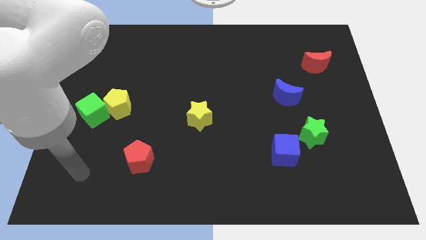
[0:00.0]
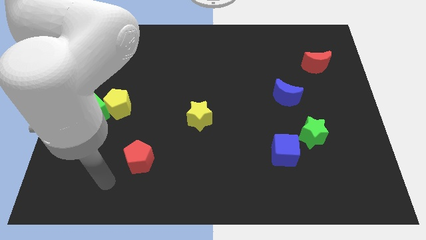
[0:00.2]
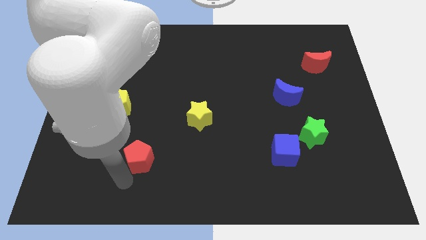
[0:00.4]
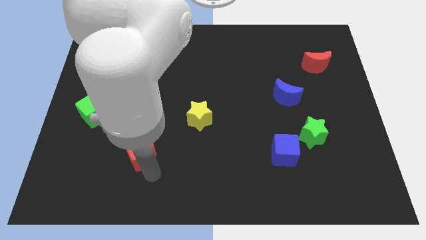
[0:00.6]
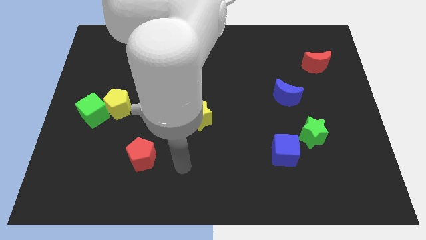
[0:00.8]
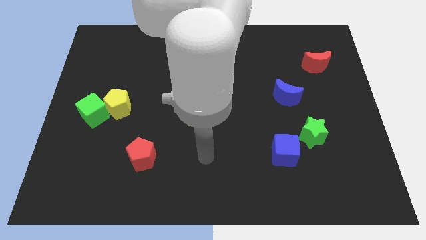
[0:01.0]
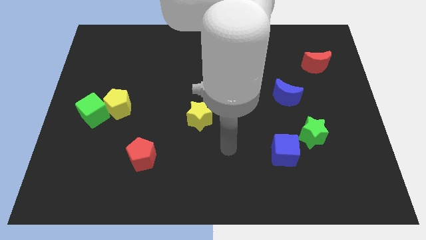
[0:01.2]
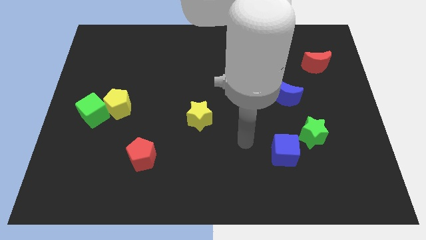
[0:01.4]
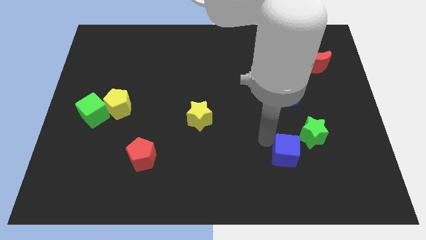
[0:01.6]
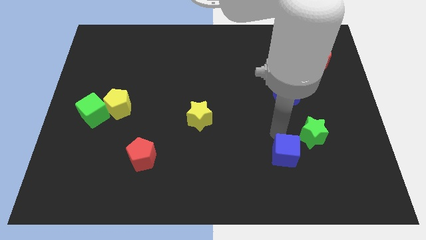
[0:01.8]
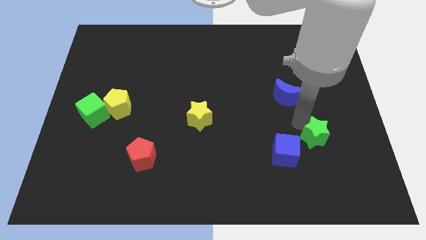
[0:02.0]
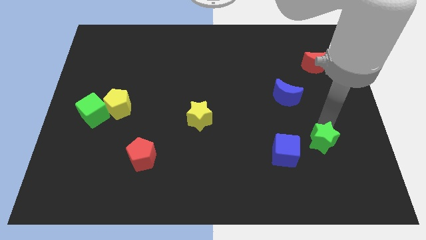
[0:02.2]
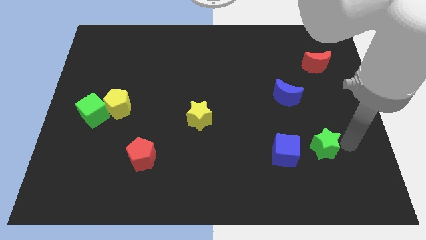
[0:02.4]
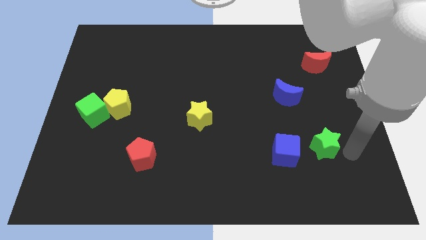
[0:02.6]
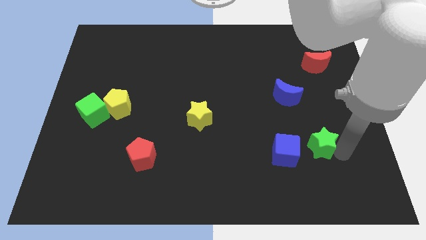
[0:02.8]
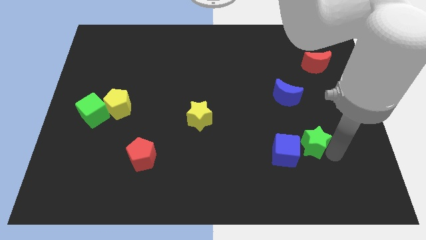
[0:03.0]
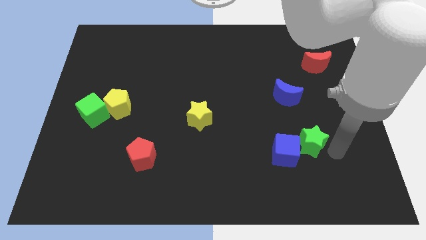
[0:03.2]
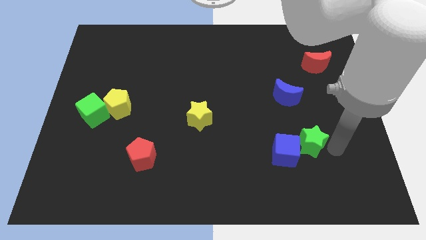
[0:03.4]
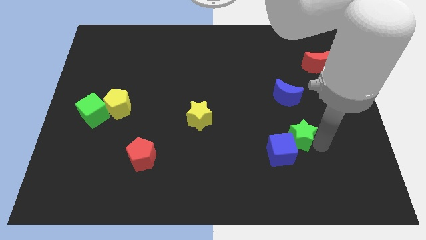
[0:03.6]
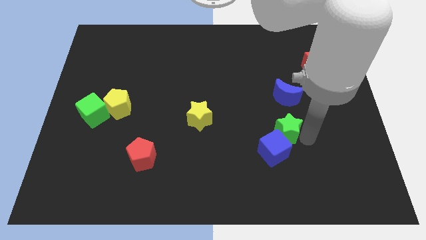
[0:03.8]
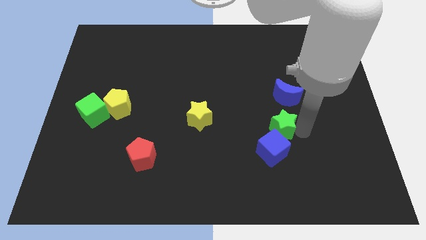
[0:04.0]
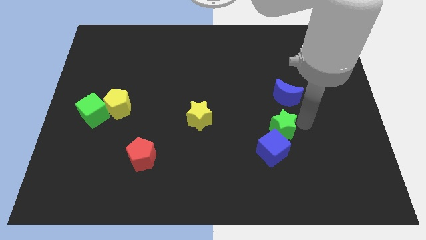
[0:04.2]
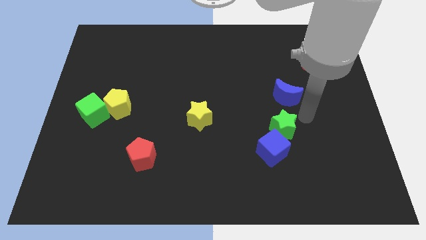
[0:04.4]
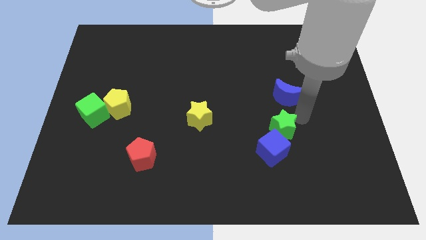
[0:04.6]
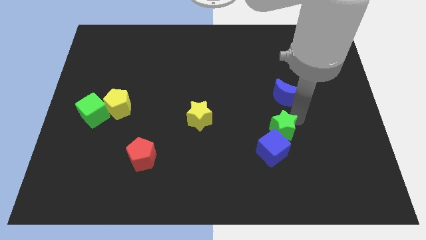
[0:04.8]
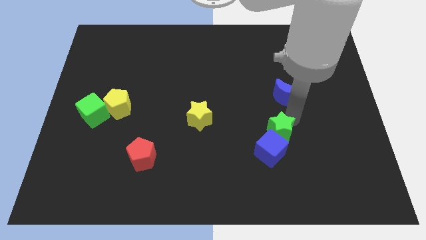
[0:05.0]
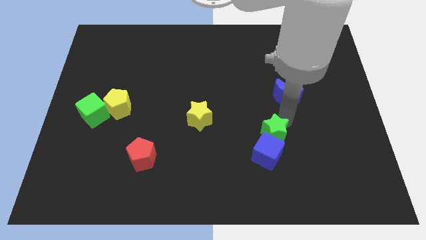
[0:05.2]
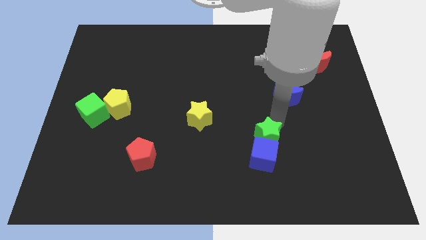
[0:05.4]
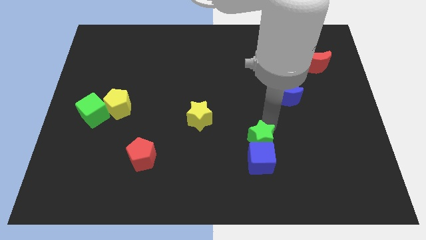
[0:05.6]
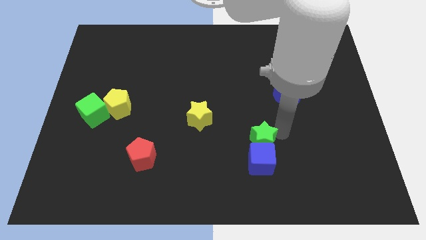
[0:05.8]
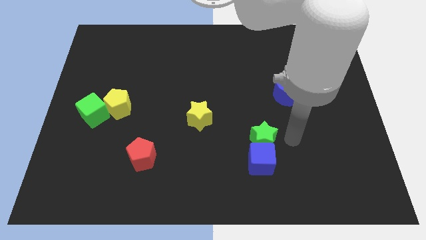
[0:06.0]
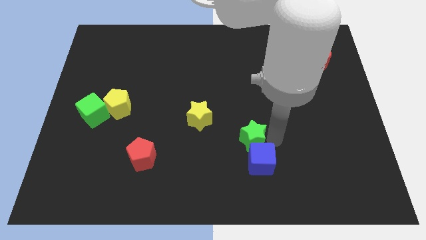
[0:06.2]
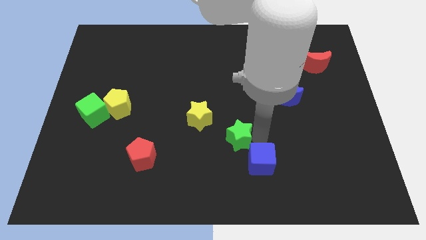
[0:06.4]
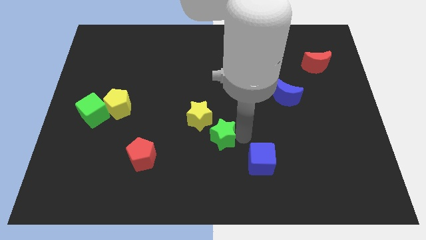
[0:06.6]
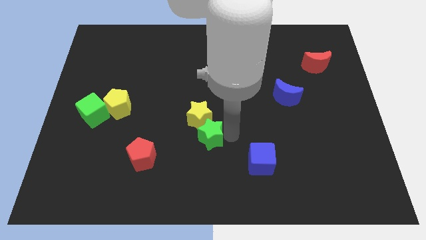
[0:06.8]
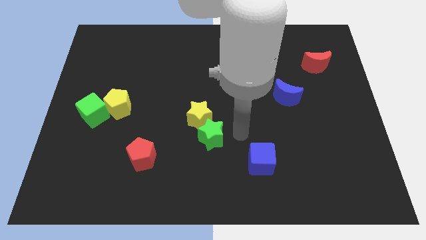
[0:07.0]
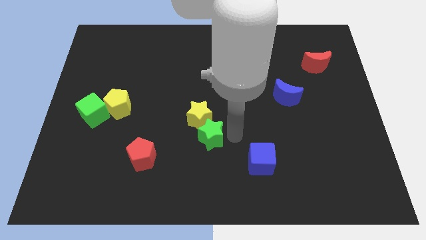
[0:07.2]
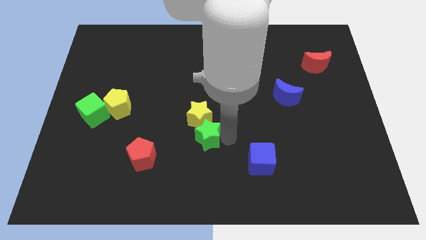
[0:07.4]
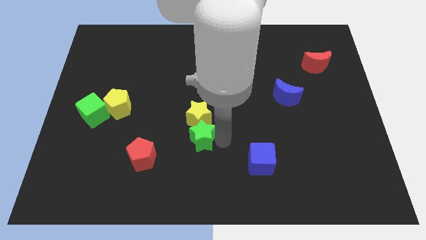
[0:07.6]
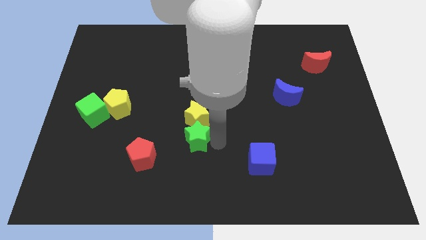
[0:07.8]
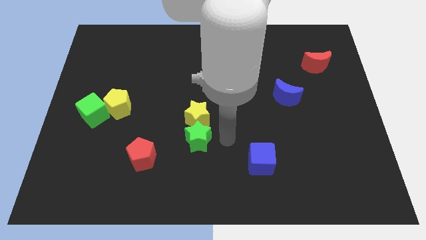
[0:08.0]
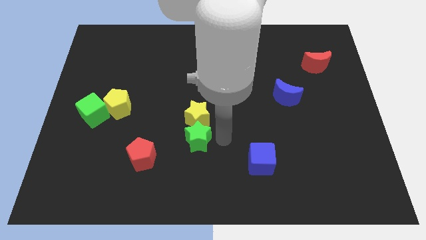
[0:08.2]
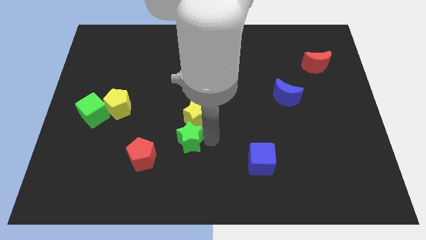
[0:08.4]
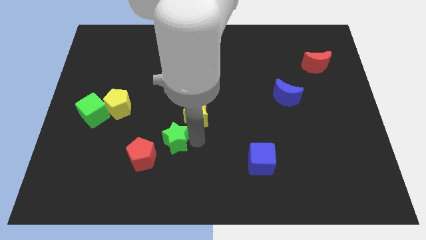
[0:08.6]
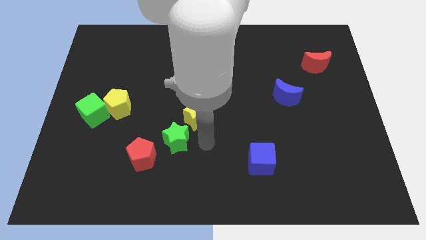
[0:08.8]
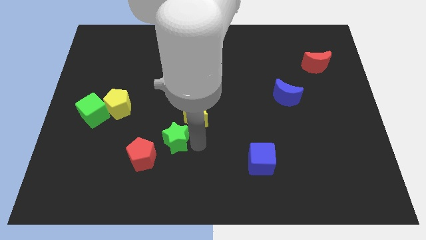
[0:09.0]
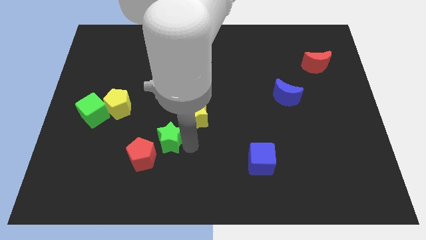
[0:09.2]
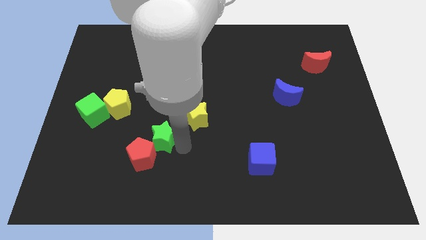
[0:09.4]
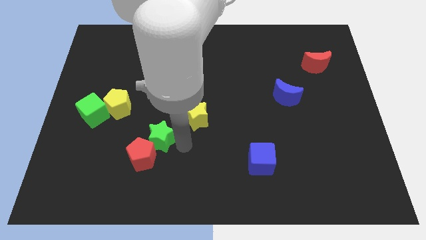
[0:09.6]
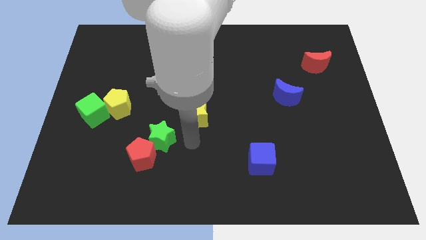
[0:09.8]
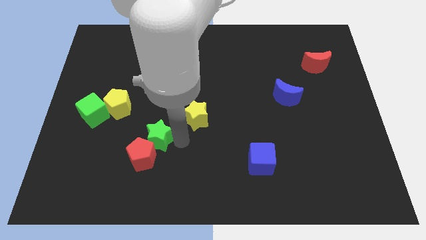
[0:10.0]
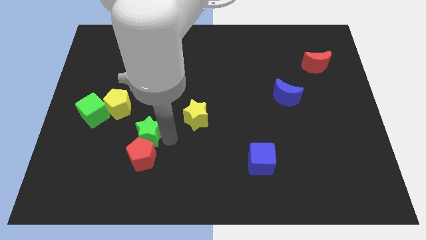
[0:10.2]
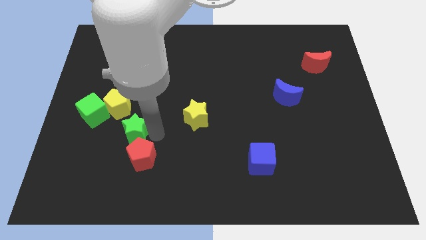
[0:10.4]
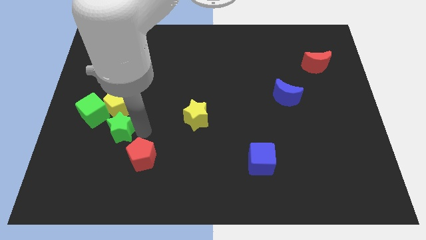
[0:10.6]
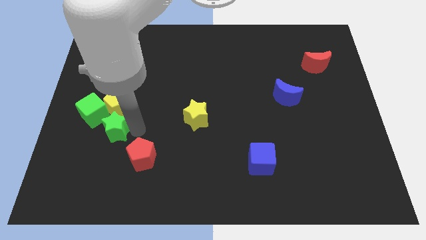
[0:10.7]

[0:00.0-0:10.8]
slide the green star diagonally down and to the left of the yellow pentagon

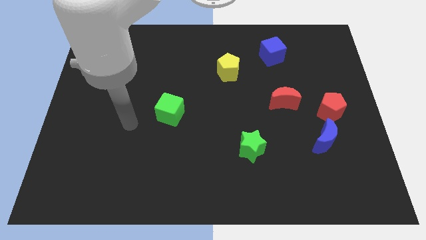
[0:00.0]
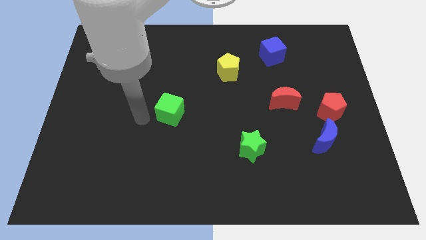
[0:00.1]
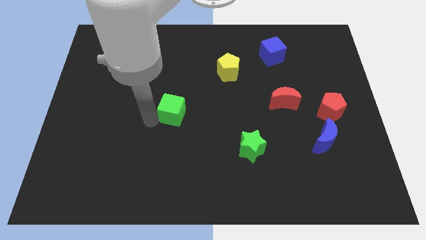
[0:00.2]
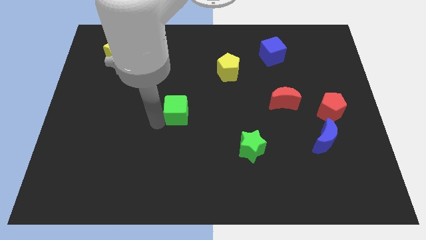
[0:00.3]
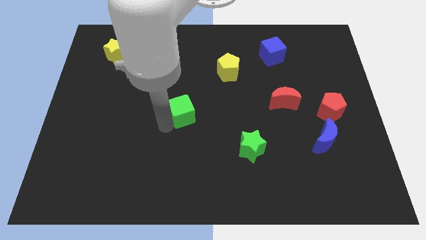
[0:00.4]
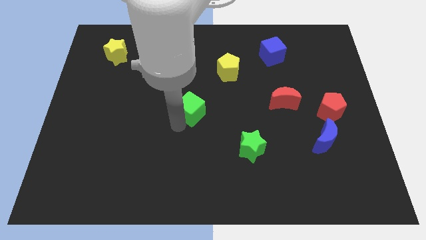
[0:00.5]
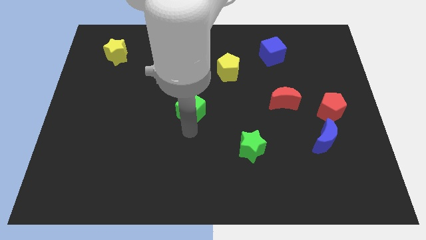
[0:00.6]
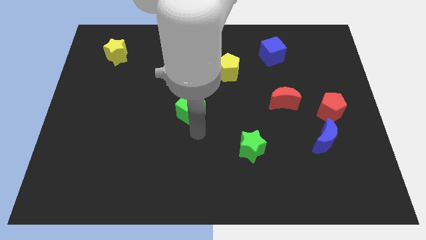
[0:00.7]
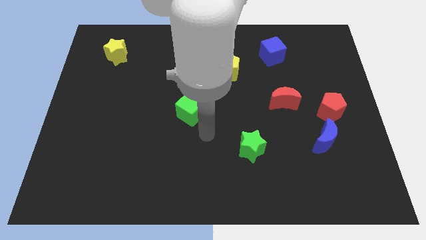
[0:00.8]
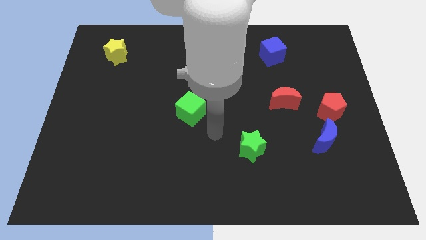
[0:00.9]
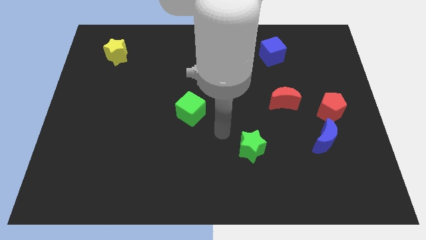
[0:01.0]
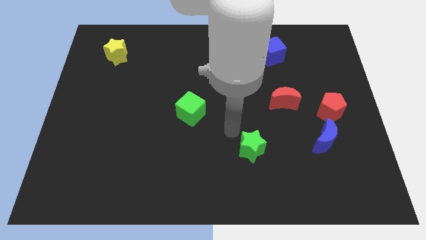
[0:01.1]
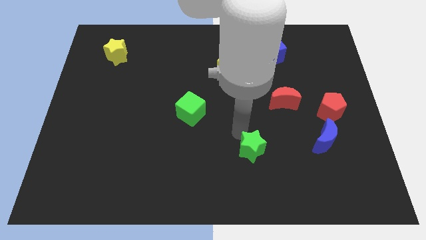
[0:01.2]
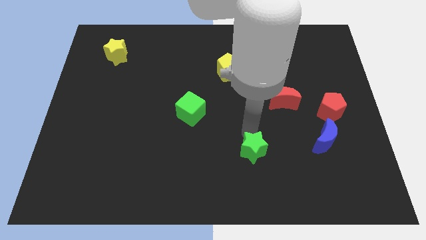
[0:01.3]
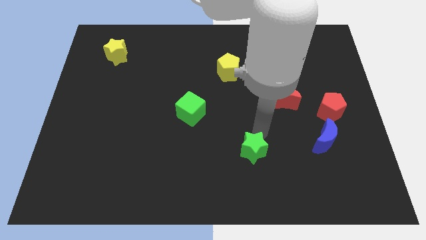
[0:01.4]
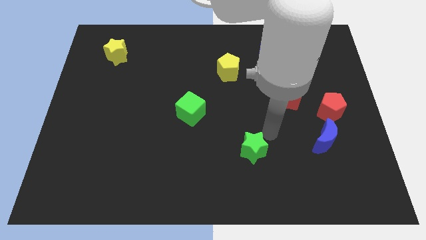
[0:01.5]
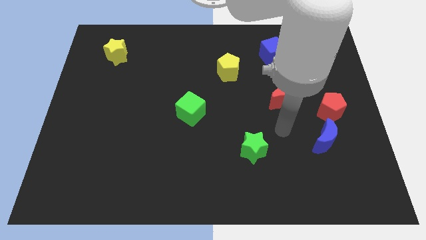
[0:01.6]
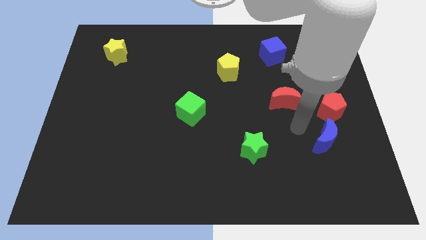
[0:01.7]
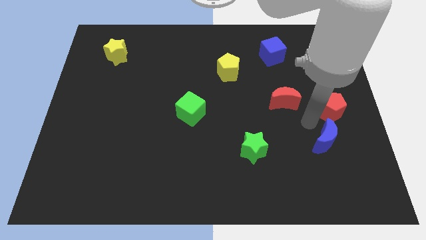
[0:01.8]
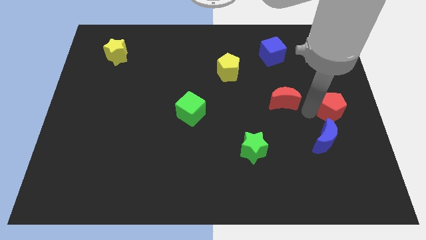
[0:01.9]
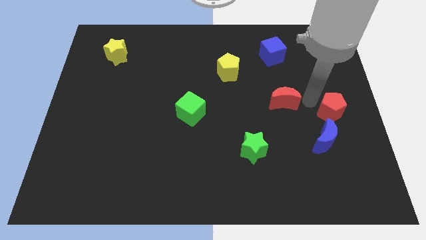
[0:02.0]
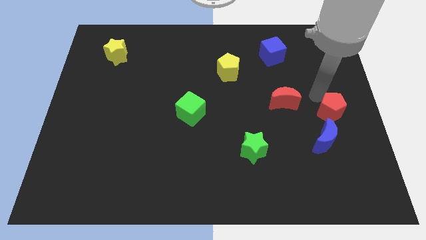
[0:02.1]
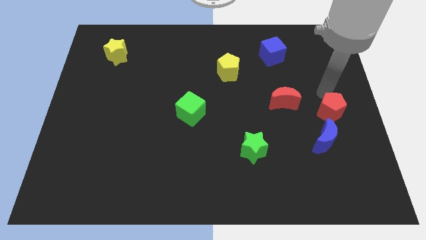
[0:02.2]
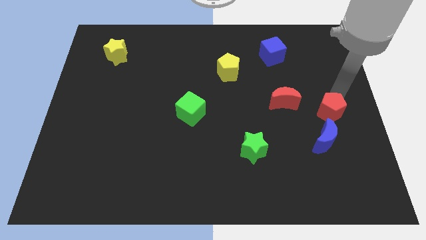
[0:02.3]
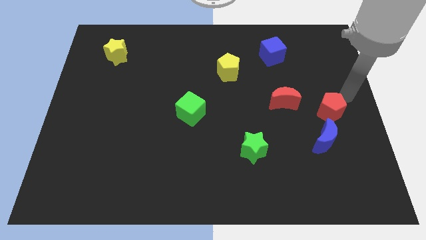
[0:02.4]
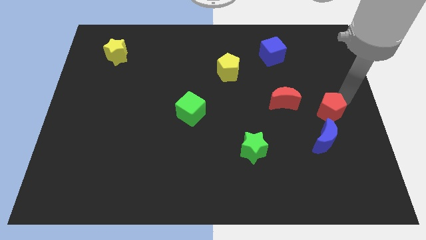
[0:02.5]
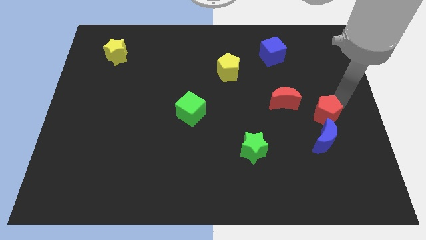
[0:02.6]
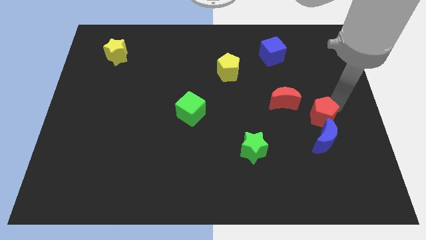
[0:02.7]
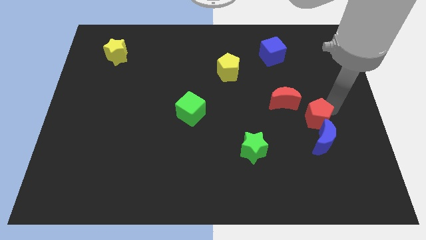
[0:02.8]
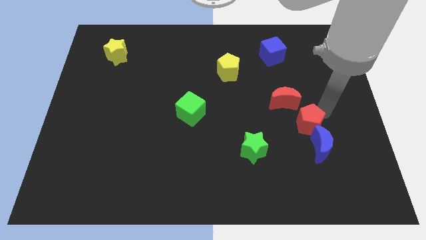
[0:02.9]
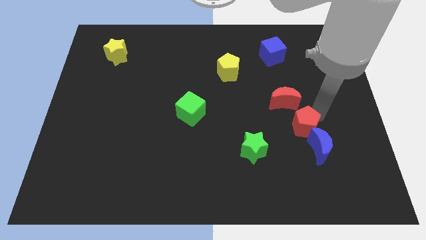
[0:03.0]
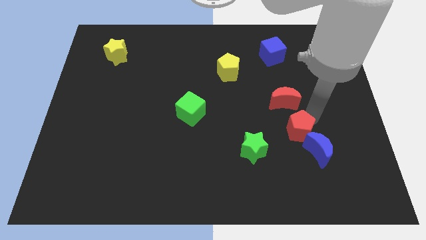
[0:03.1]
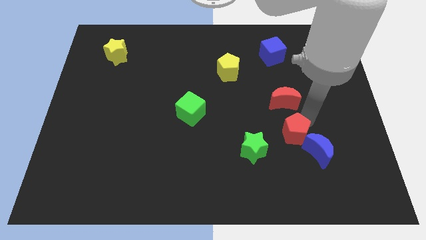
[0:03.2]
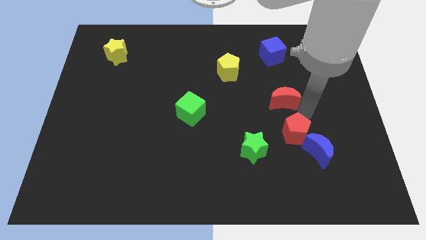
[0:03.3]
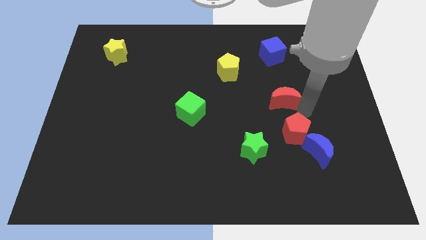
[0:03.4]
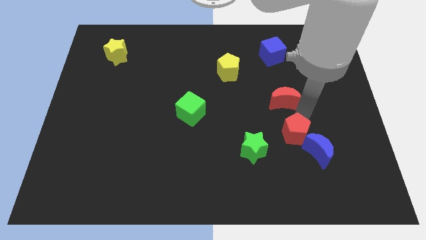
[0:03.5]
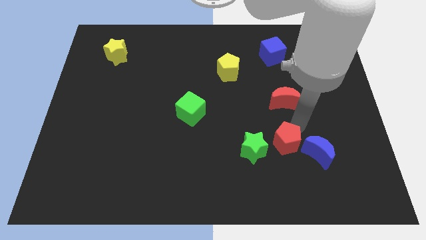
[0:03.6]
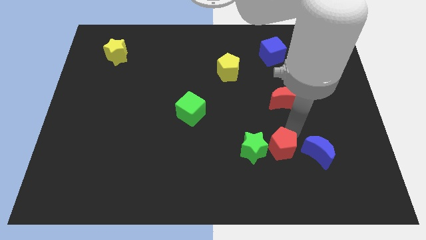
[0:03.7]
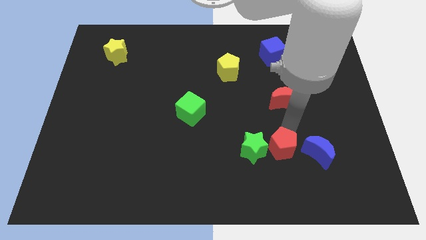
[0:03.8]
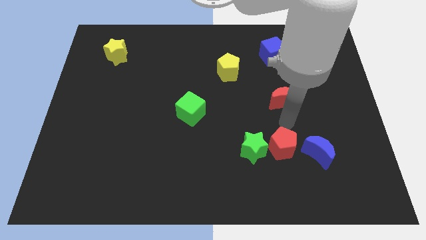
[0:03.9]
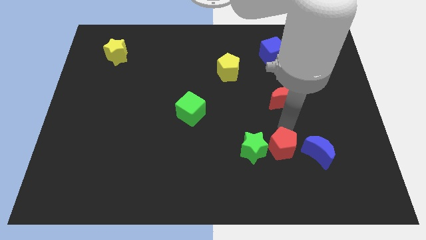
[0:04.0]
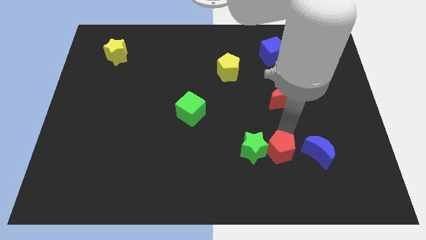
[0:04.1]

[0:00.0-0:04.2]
put the red pentagon diagonally down and to the right of the green star
